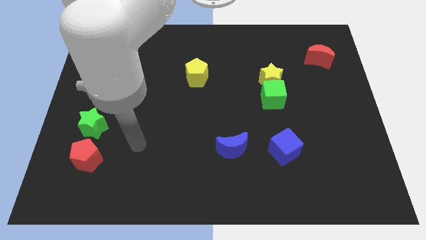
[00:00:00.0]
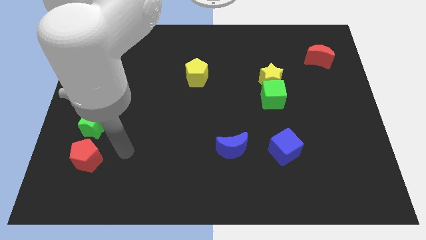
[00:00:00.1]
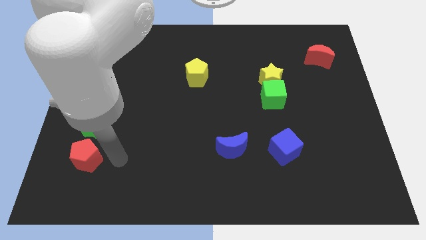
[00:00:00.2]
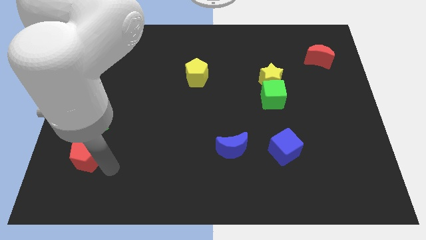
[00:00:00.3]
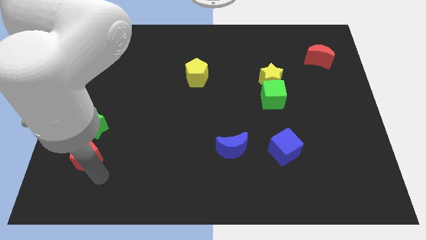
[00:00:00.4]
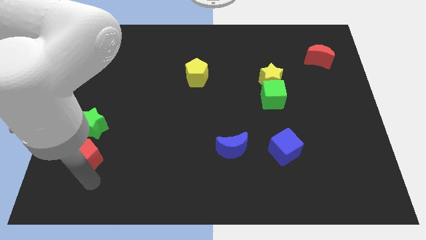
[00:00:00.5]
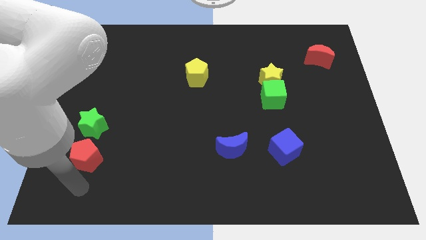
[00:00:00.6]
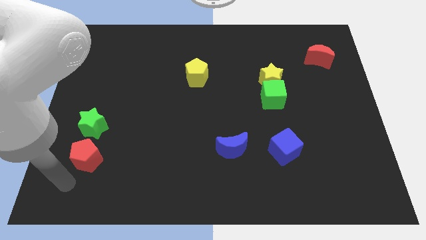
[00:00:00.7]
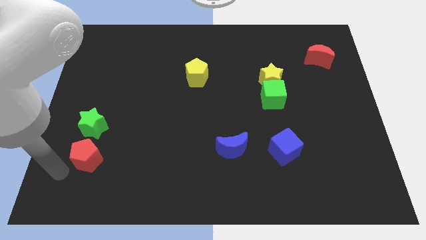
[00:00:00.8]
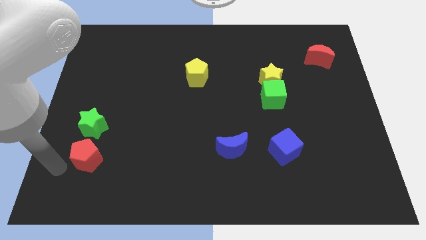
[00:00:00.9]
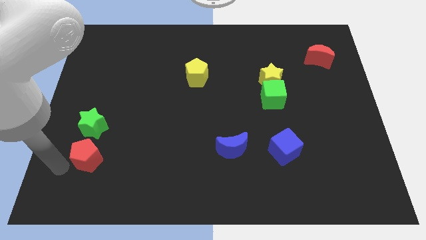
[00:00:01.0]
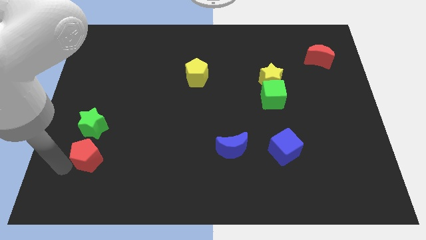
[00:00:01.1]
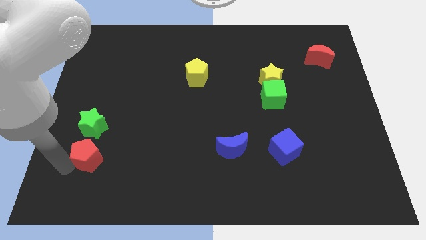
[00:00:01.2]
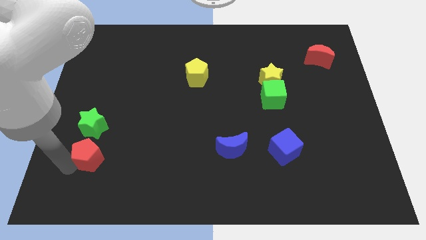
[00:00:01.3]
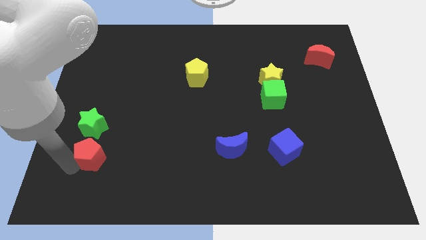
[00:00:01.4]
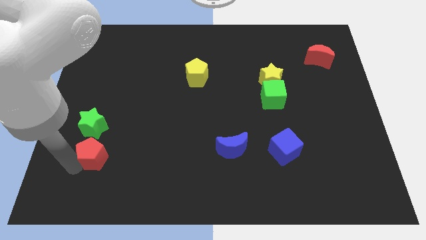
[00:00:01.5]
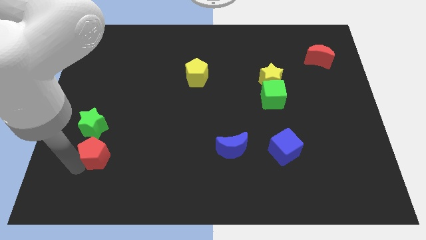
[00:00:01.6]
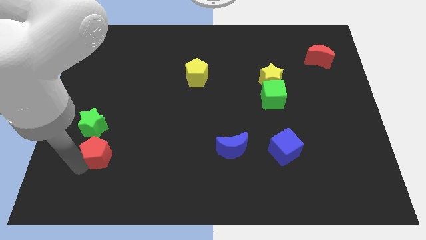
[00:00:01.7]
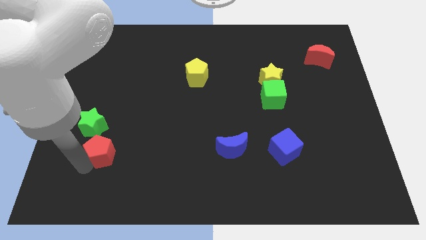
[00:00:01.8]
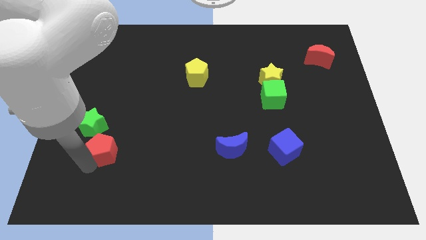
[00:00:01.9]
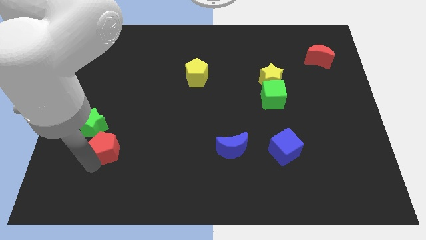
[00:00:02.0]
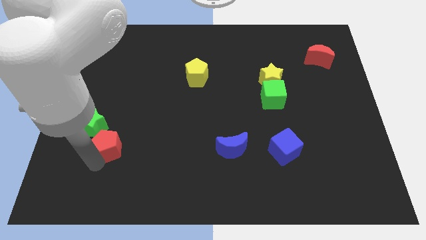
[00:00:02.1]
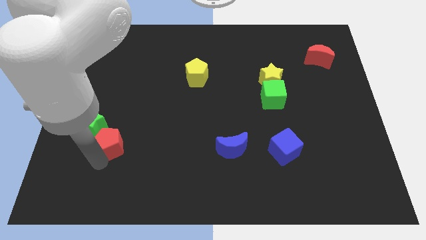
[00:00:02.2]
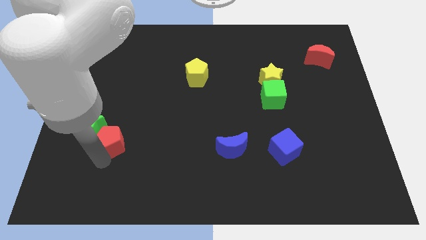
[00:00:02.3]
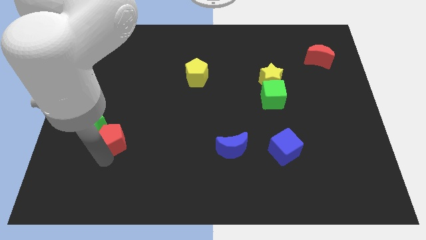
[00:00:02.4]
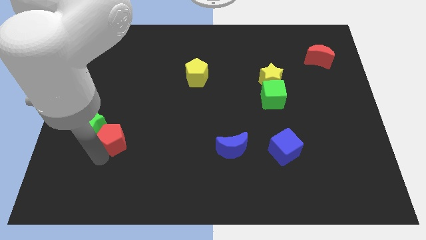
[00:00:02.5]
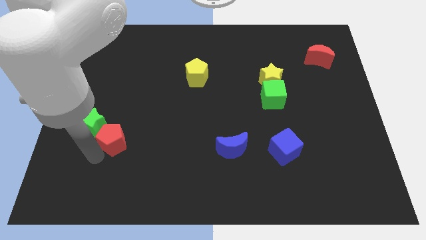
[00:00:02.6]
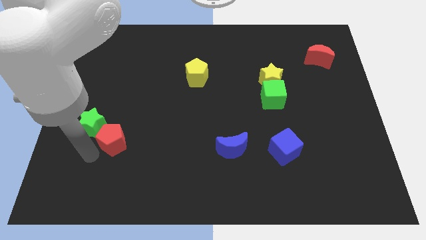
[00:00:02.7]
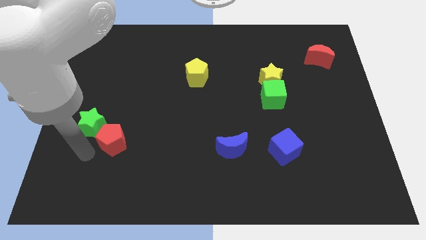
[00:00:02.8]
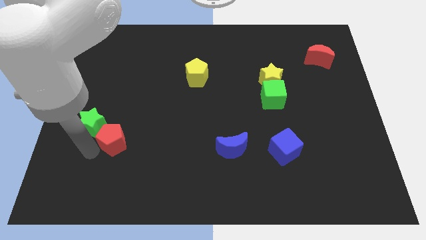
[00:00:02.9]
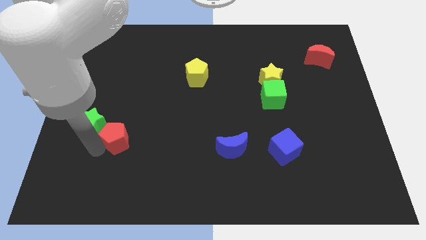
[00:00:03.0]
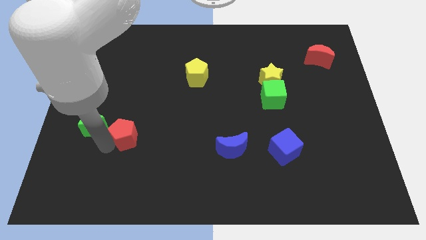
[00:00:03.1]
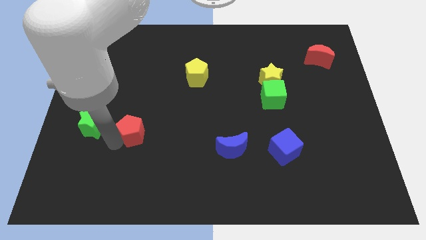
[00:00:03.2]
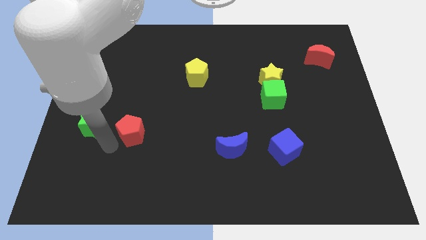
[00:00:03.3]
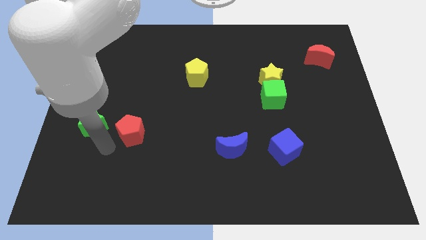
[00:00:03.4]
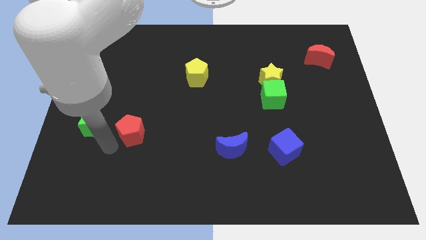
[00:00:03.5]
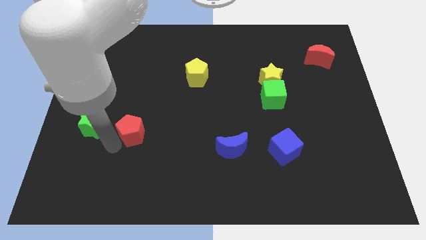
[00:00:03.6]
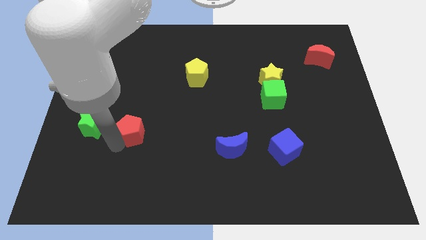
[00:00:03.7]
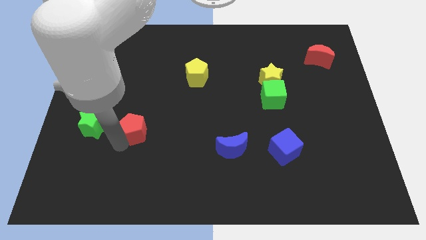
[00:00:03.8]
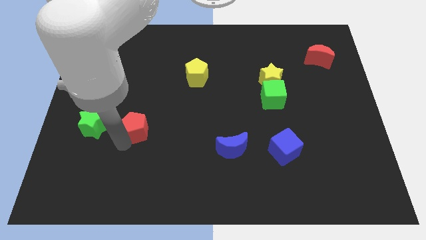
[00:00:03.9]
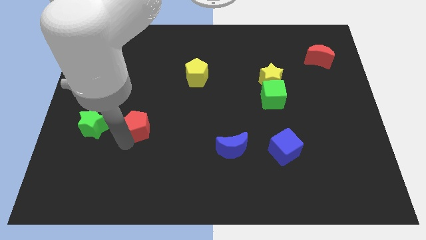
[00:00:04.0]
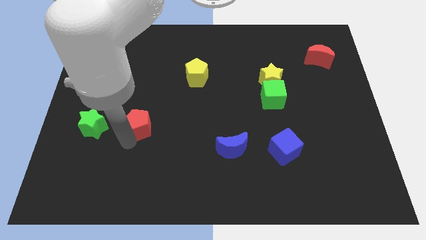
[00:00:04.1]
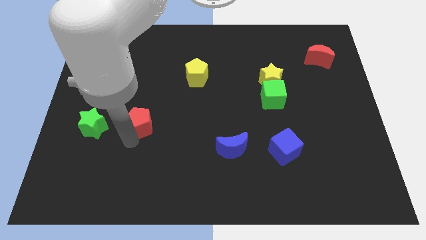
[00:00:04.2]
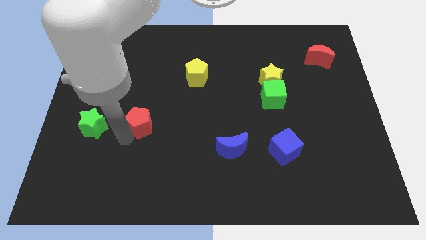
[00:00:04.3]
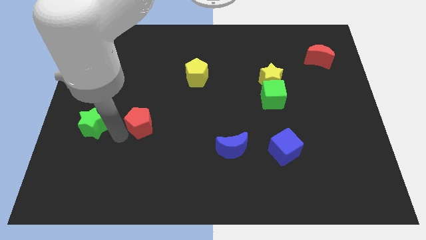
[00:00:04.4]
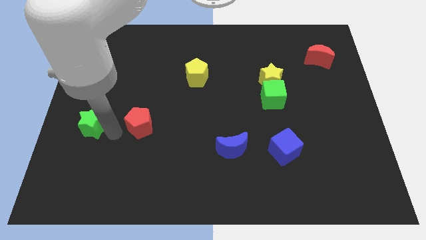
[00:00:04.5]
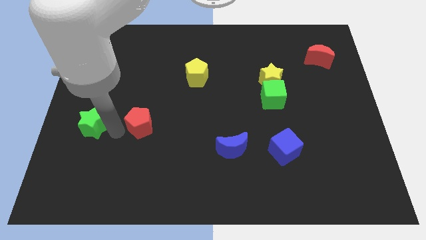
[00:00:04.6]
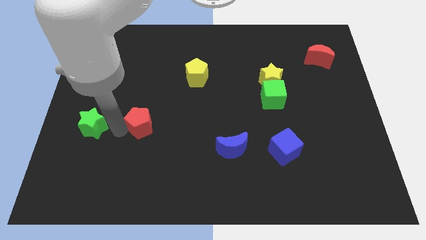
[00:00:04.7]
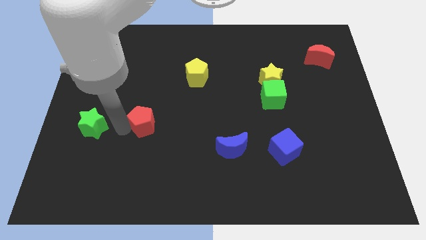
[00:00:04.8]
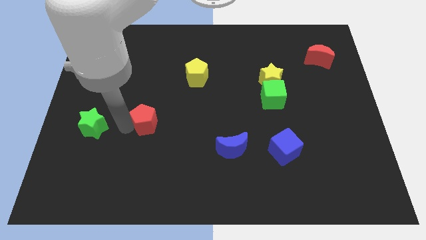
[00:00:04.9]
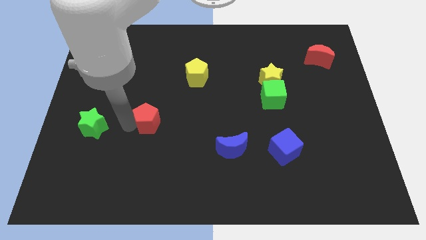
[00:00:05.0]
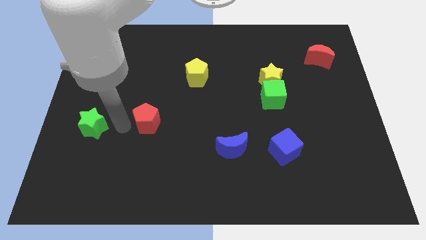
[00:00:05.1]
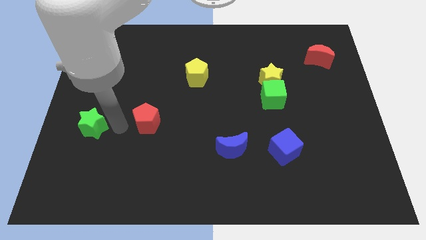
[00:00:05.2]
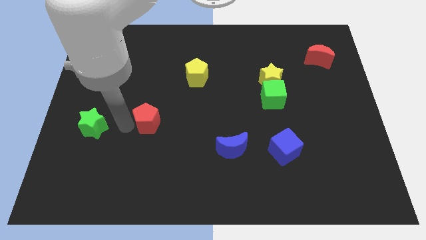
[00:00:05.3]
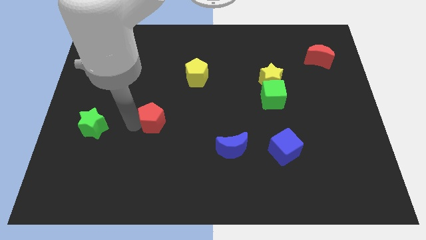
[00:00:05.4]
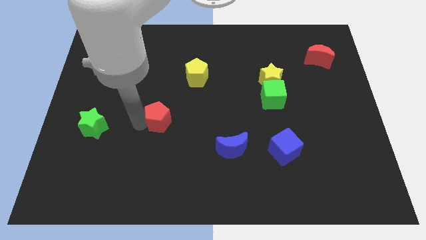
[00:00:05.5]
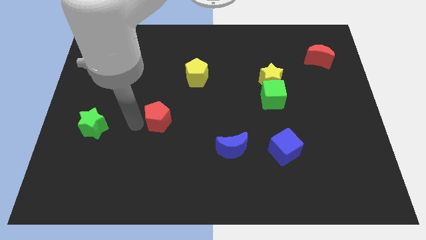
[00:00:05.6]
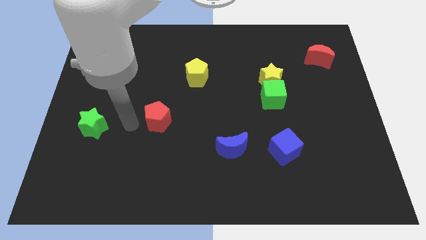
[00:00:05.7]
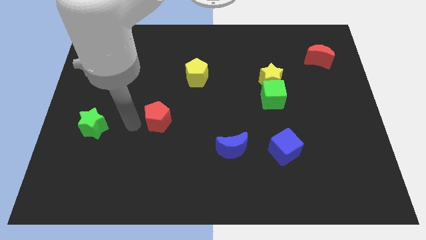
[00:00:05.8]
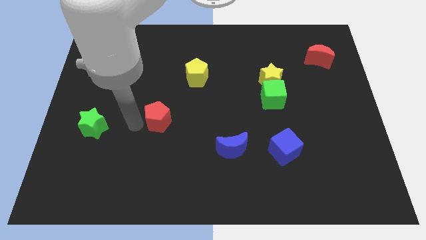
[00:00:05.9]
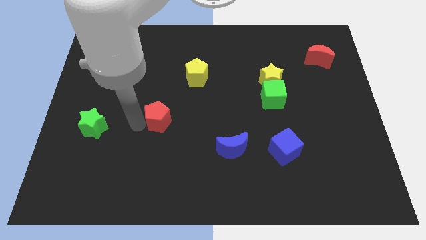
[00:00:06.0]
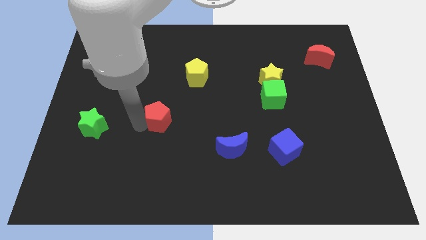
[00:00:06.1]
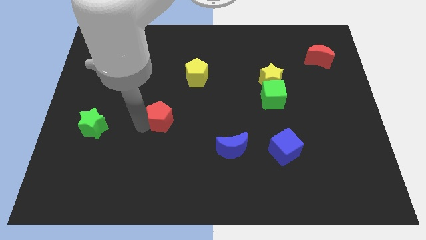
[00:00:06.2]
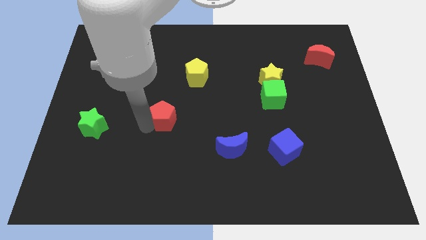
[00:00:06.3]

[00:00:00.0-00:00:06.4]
move the red pentagon to the middle

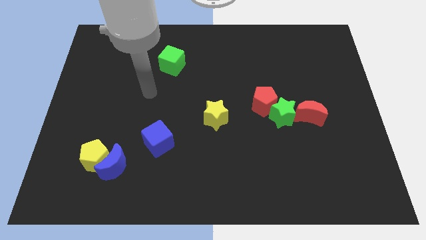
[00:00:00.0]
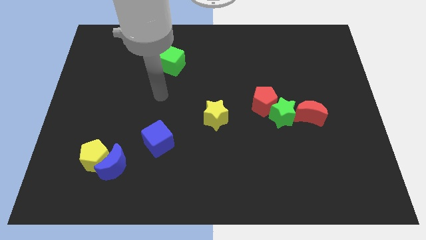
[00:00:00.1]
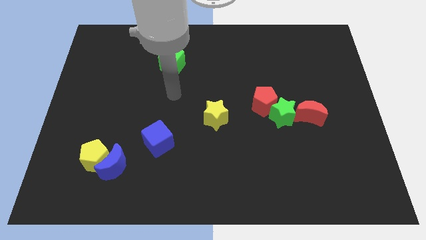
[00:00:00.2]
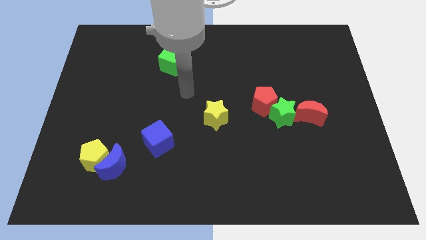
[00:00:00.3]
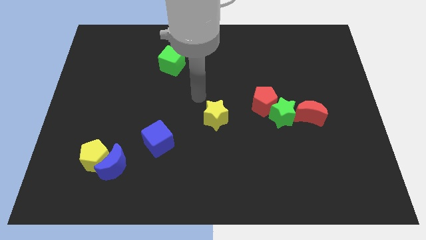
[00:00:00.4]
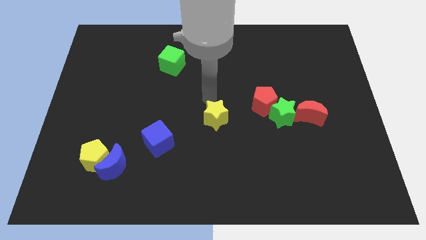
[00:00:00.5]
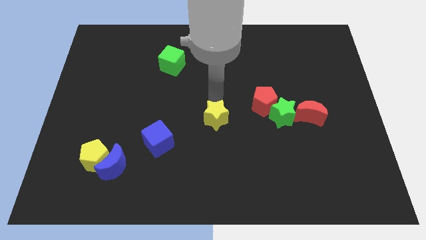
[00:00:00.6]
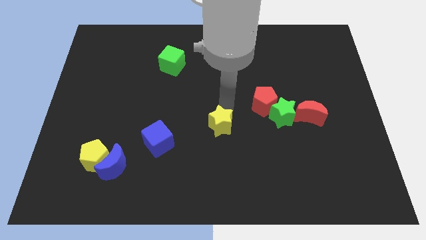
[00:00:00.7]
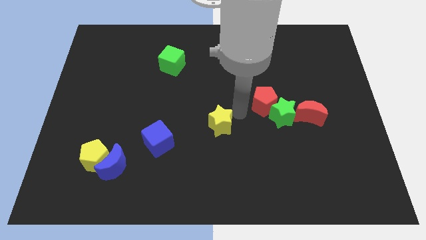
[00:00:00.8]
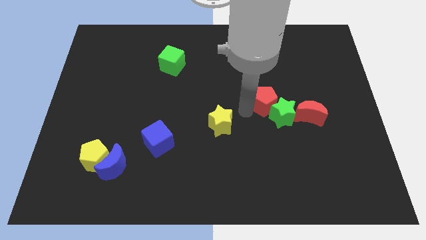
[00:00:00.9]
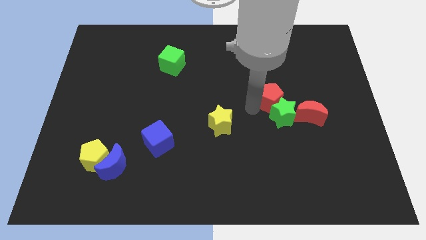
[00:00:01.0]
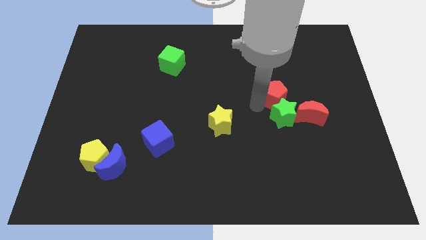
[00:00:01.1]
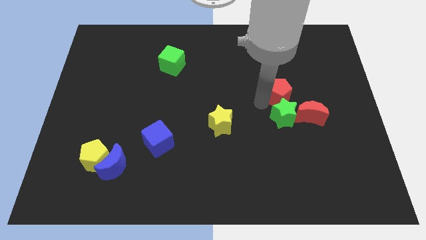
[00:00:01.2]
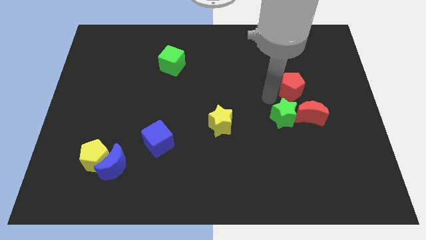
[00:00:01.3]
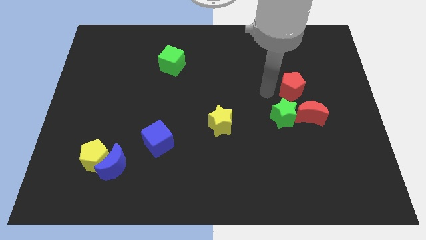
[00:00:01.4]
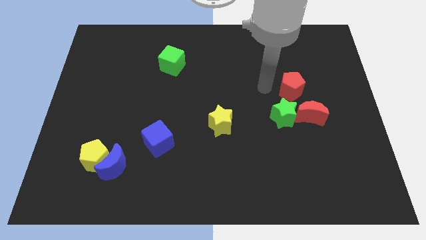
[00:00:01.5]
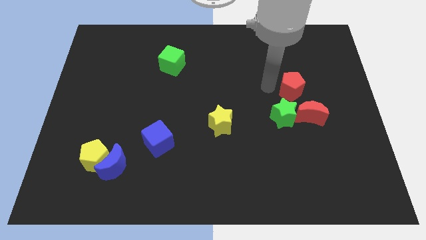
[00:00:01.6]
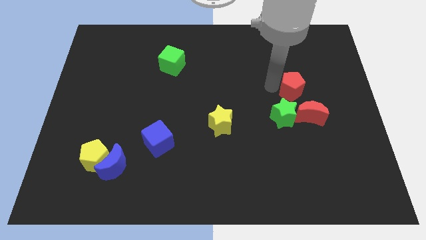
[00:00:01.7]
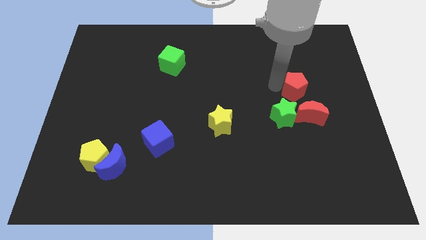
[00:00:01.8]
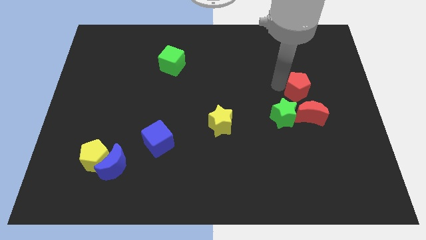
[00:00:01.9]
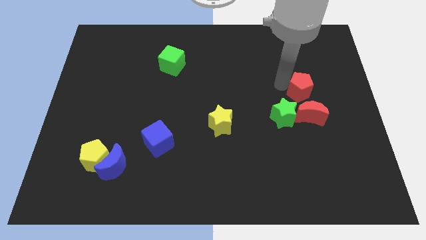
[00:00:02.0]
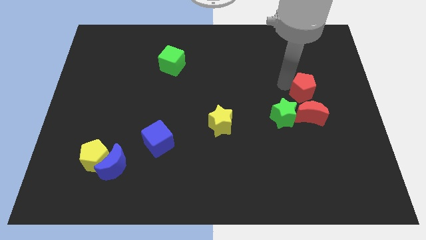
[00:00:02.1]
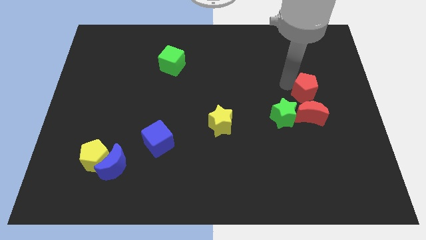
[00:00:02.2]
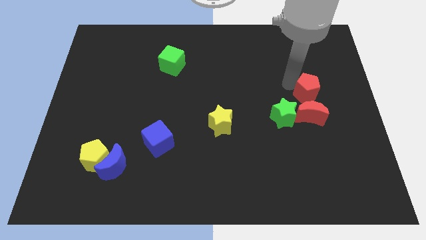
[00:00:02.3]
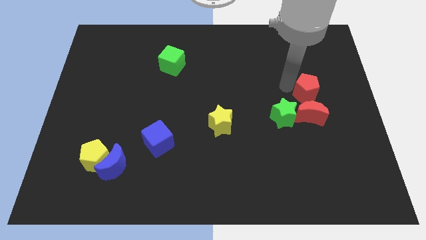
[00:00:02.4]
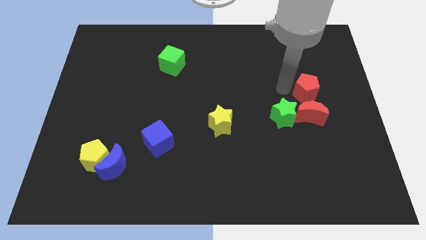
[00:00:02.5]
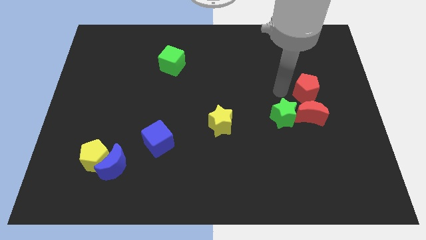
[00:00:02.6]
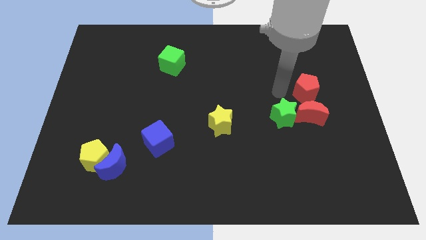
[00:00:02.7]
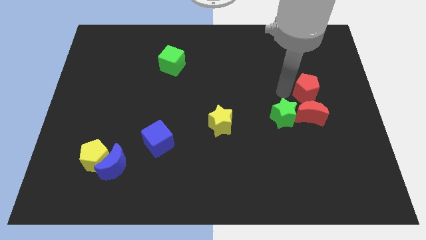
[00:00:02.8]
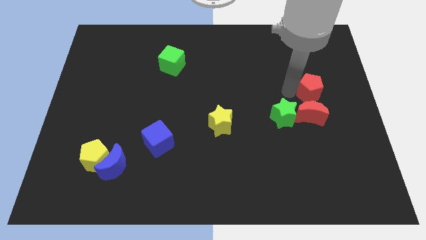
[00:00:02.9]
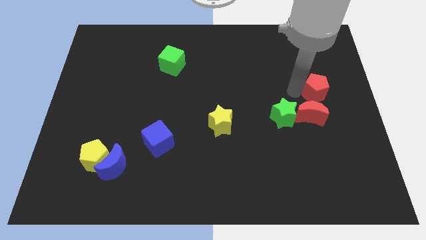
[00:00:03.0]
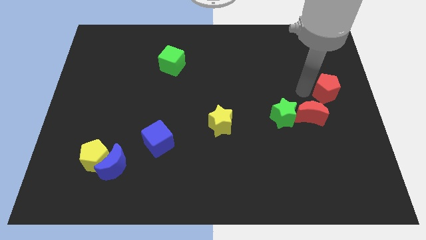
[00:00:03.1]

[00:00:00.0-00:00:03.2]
slide the red pentagon to the right side
